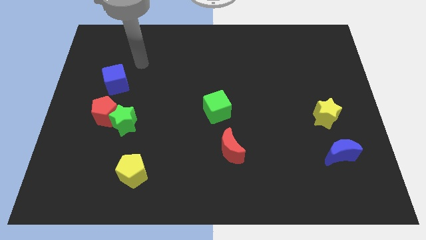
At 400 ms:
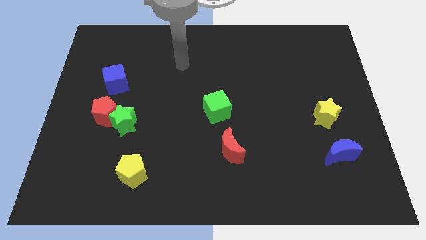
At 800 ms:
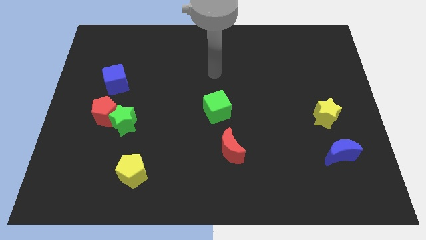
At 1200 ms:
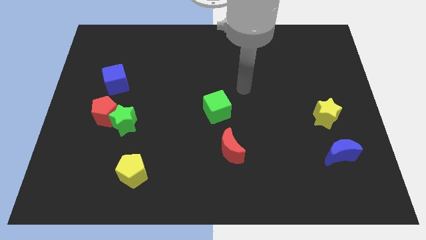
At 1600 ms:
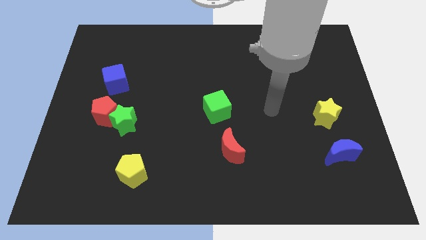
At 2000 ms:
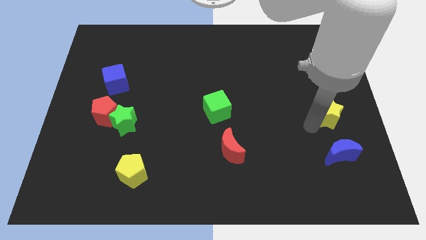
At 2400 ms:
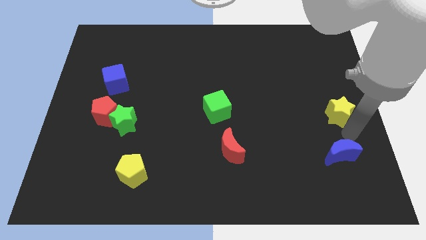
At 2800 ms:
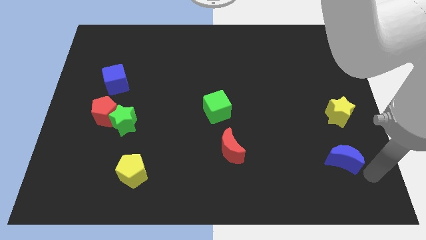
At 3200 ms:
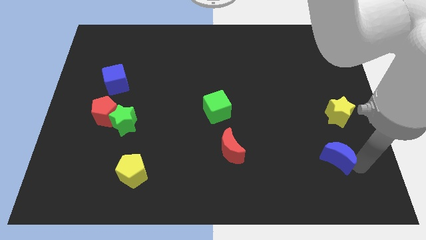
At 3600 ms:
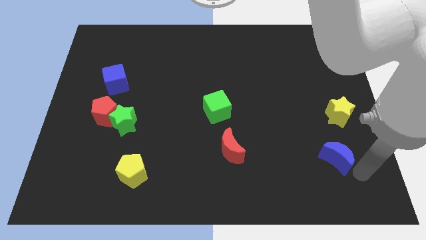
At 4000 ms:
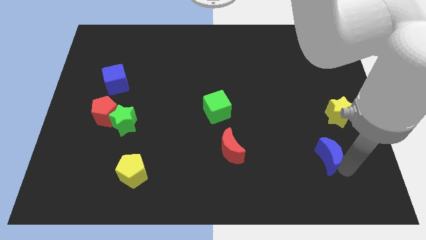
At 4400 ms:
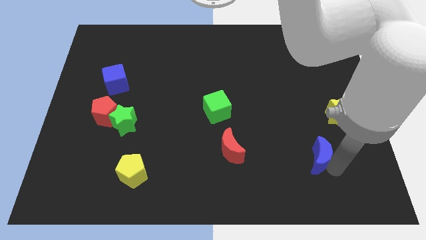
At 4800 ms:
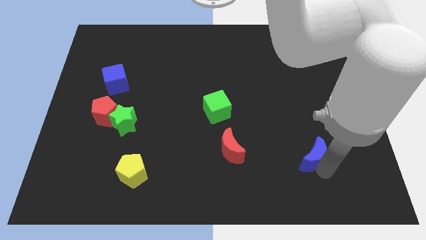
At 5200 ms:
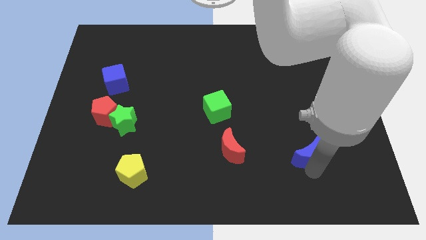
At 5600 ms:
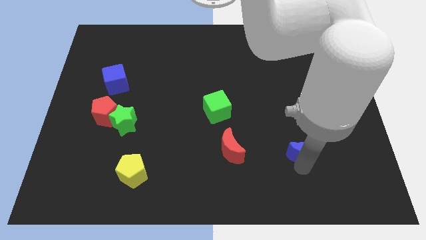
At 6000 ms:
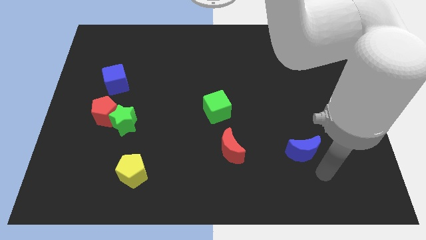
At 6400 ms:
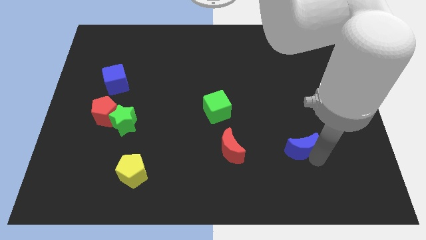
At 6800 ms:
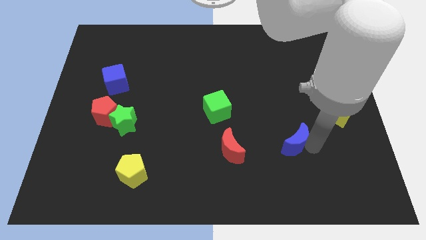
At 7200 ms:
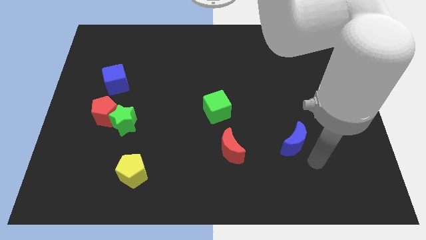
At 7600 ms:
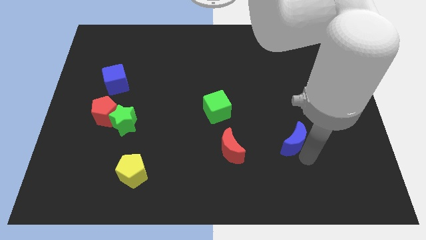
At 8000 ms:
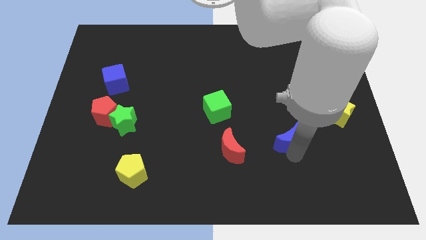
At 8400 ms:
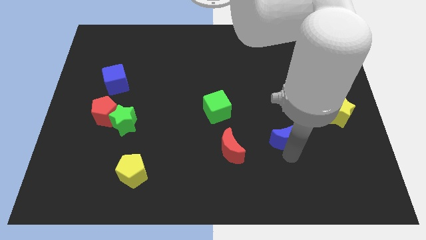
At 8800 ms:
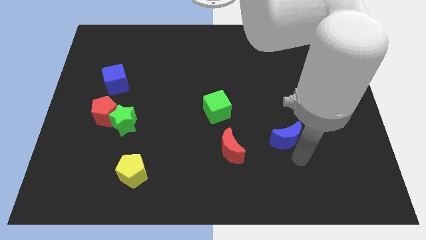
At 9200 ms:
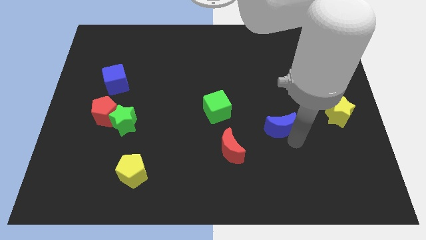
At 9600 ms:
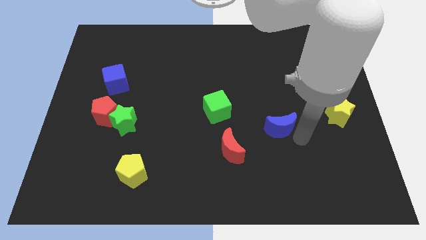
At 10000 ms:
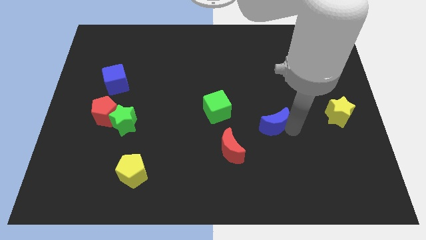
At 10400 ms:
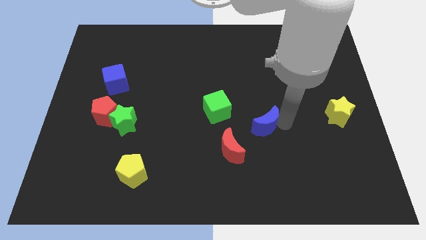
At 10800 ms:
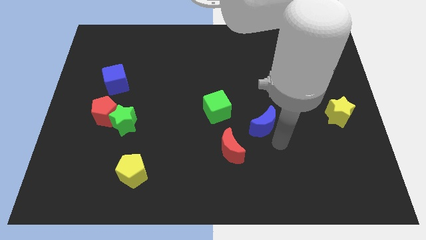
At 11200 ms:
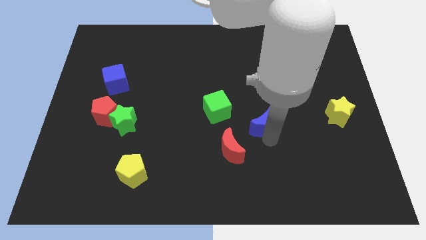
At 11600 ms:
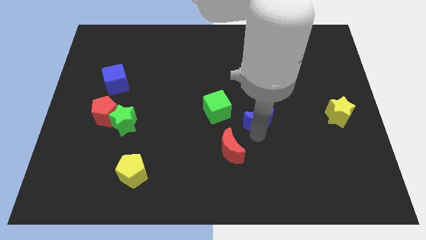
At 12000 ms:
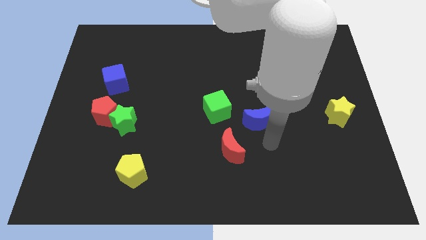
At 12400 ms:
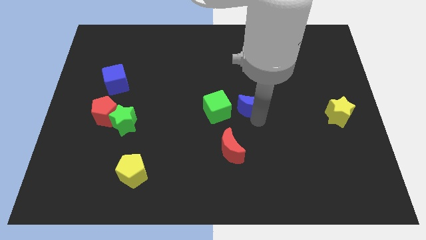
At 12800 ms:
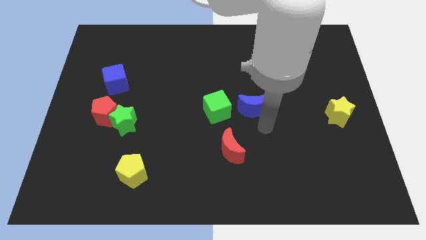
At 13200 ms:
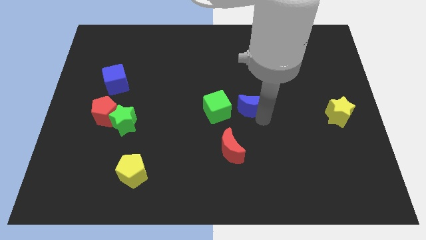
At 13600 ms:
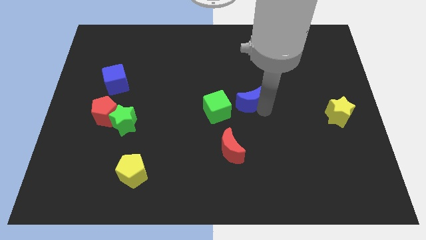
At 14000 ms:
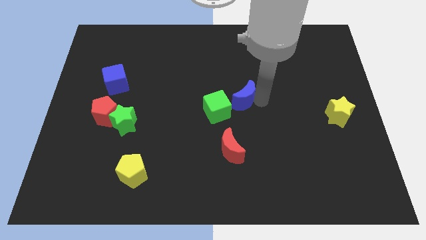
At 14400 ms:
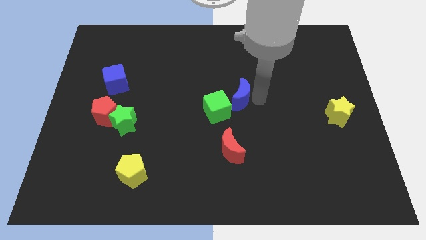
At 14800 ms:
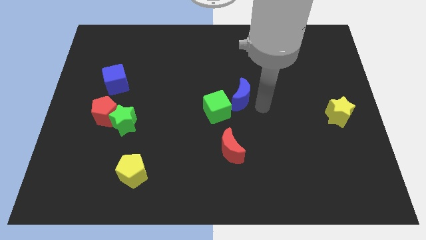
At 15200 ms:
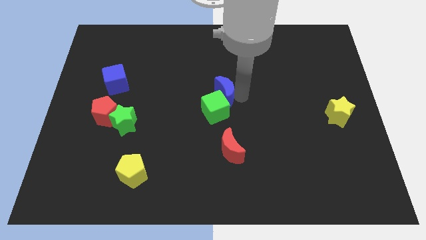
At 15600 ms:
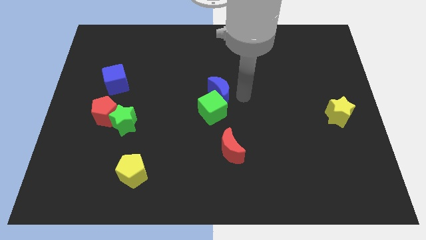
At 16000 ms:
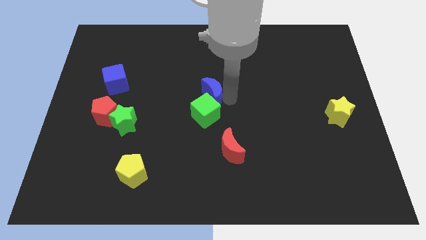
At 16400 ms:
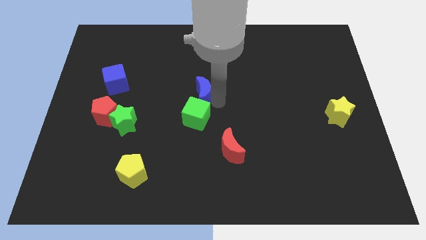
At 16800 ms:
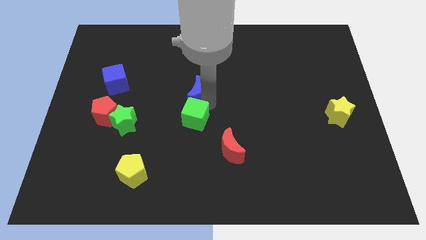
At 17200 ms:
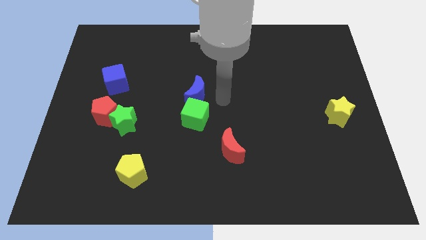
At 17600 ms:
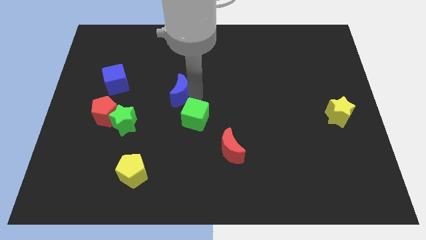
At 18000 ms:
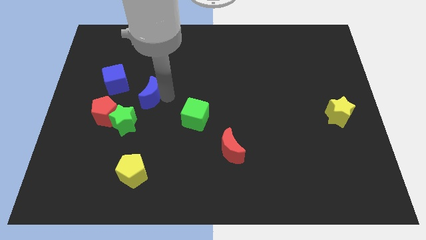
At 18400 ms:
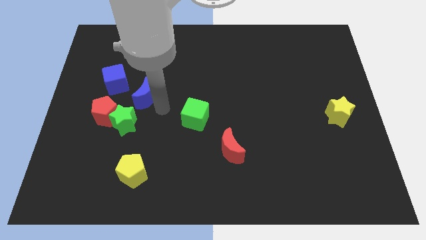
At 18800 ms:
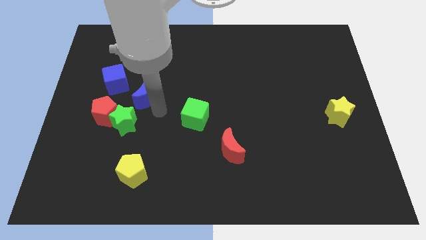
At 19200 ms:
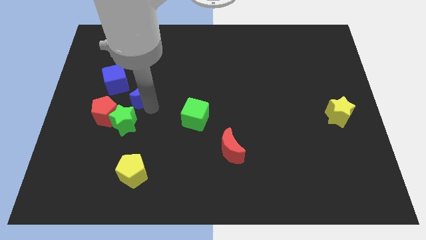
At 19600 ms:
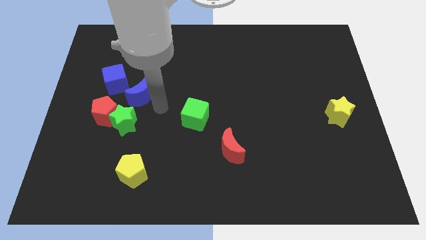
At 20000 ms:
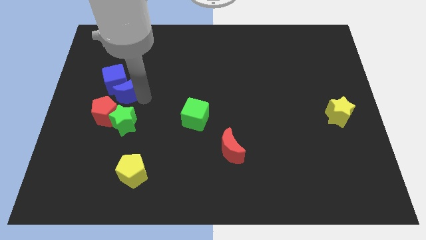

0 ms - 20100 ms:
push the blue moon next to the blue cube

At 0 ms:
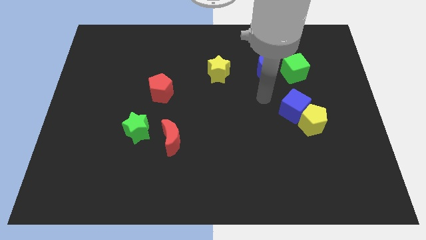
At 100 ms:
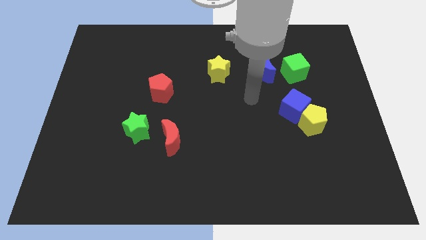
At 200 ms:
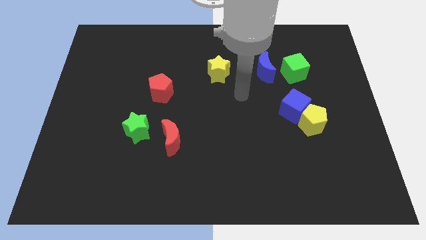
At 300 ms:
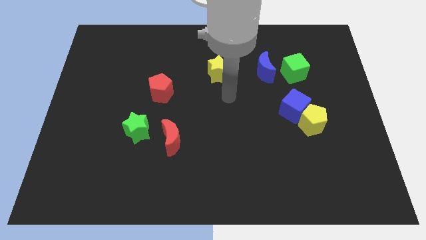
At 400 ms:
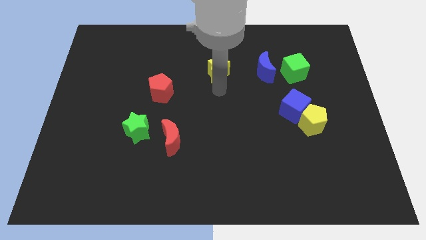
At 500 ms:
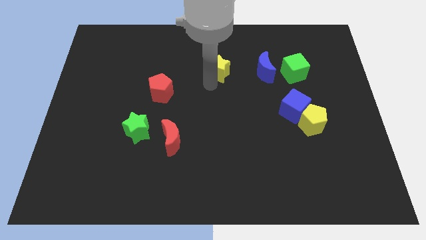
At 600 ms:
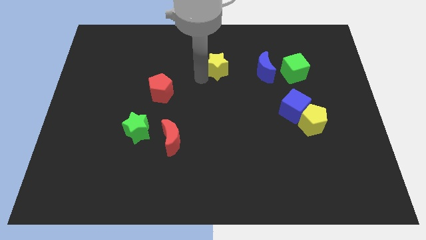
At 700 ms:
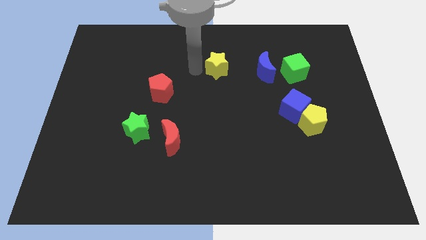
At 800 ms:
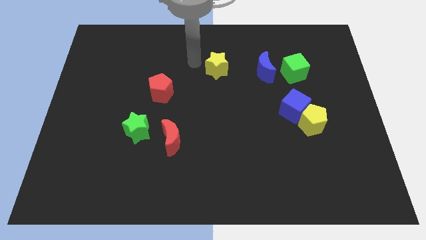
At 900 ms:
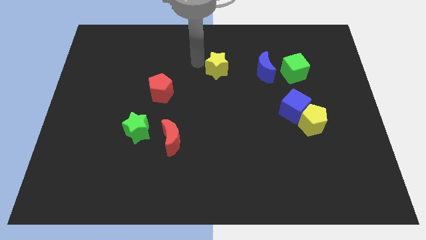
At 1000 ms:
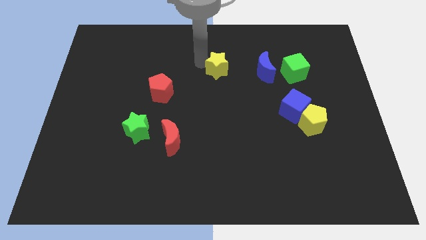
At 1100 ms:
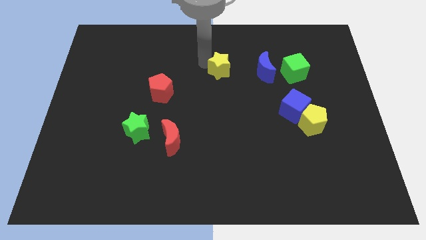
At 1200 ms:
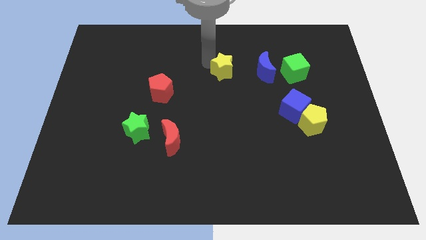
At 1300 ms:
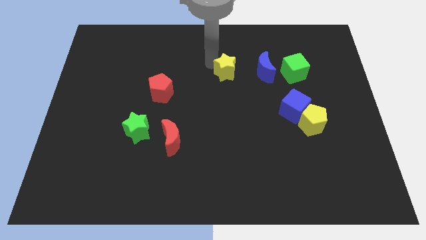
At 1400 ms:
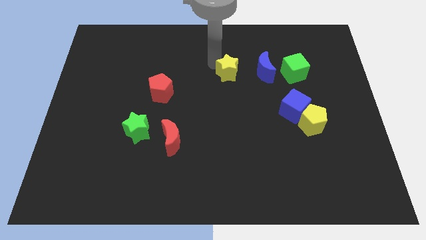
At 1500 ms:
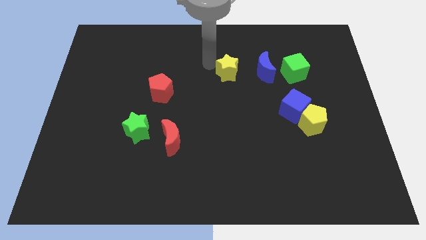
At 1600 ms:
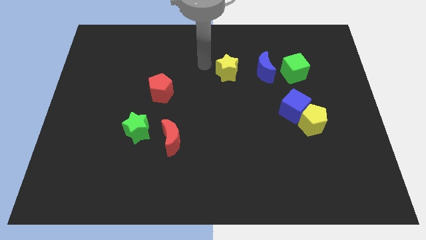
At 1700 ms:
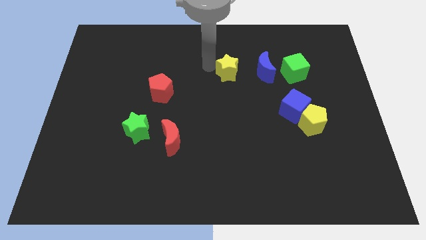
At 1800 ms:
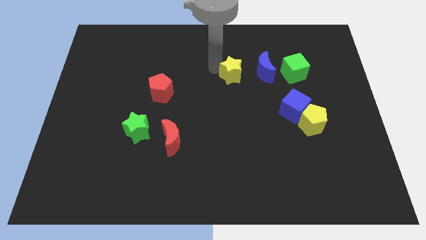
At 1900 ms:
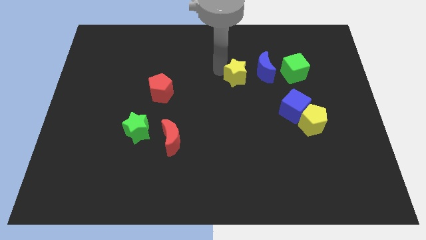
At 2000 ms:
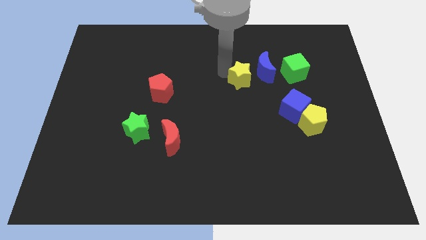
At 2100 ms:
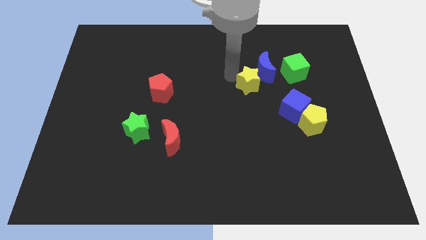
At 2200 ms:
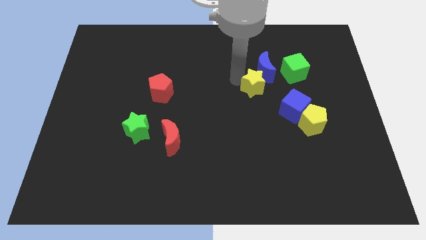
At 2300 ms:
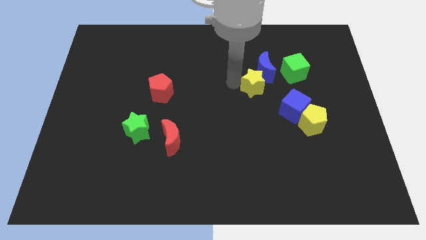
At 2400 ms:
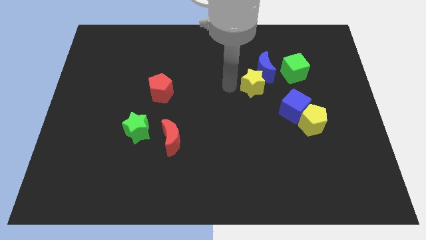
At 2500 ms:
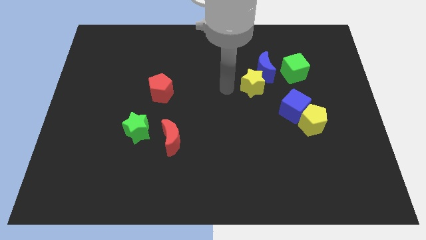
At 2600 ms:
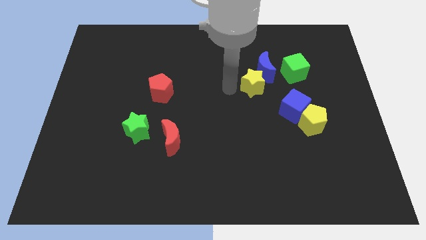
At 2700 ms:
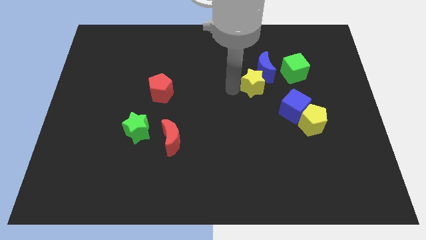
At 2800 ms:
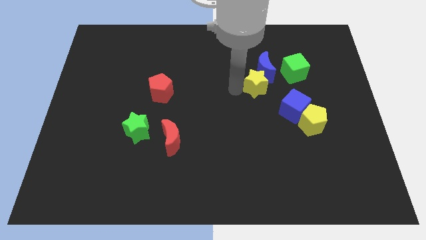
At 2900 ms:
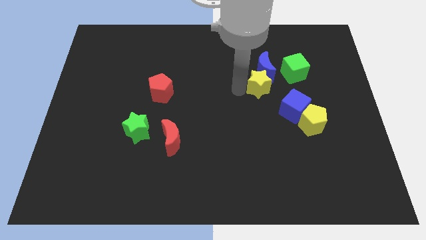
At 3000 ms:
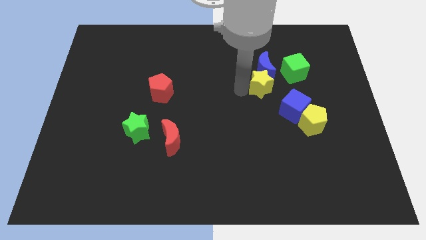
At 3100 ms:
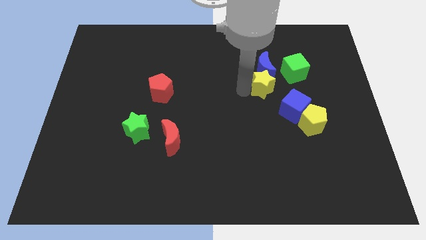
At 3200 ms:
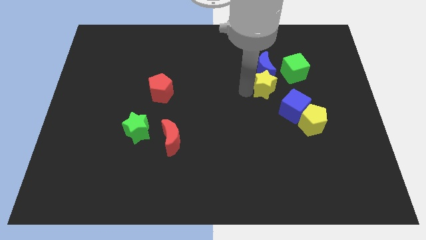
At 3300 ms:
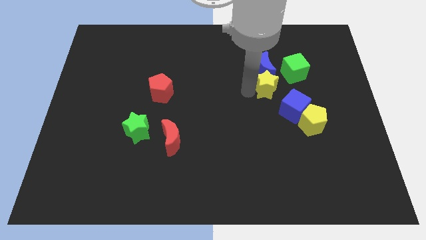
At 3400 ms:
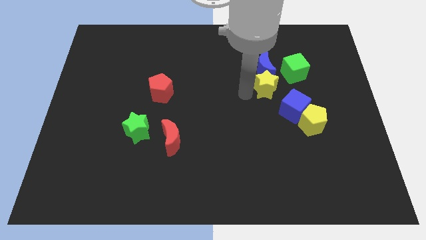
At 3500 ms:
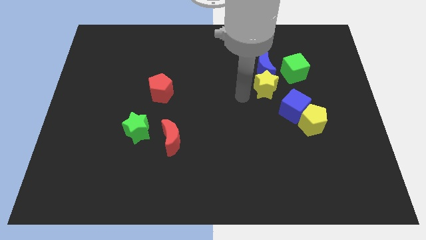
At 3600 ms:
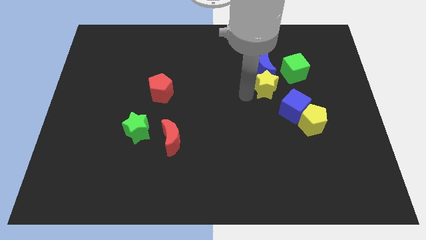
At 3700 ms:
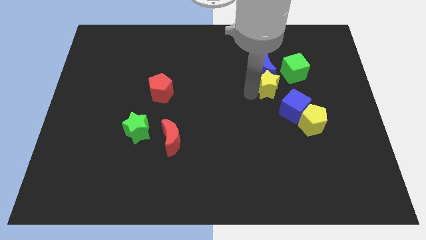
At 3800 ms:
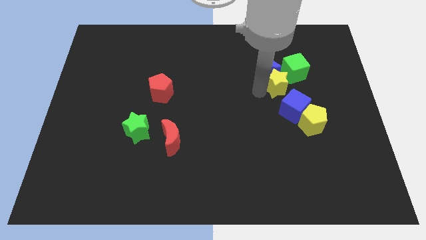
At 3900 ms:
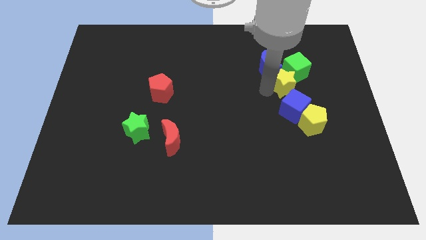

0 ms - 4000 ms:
put the yellow star to the green cube
